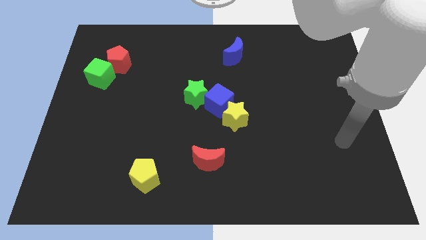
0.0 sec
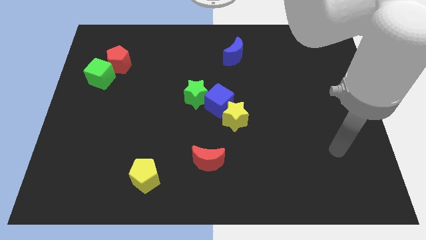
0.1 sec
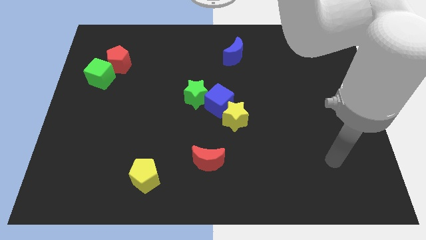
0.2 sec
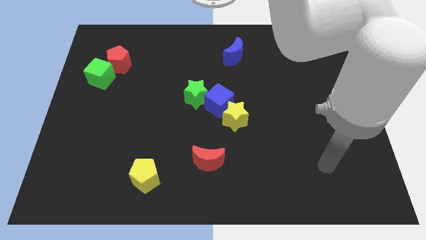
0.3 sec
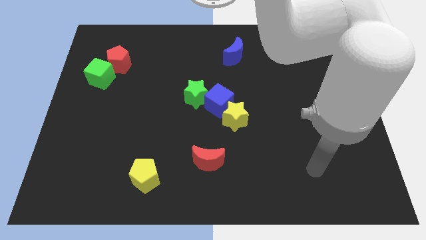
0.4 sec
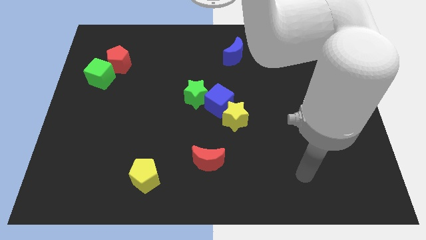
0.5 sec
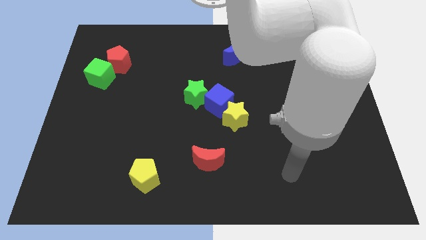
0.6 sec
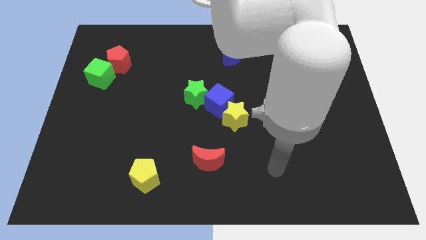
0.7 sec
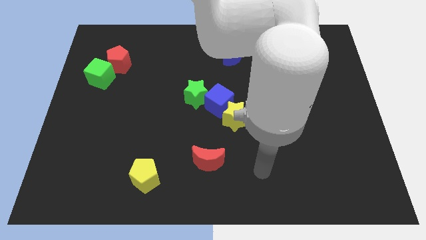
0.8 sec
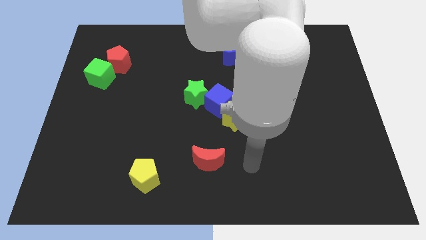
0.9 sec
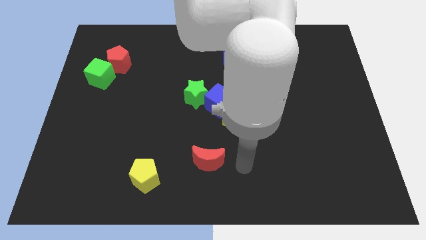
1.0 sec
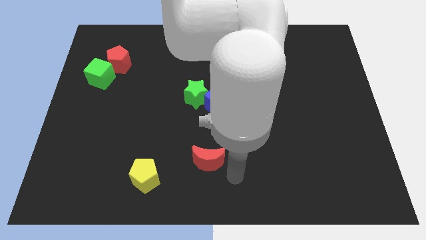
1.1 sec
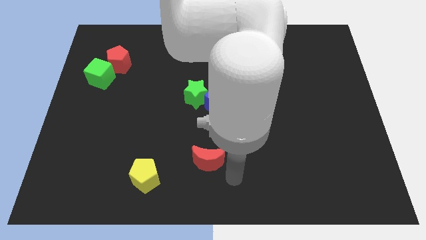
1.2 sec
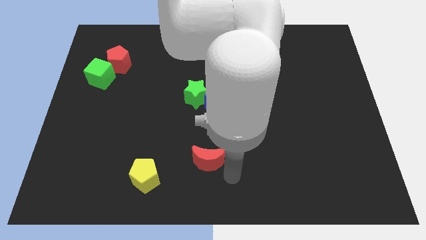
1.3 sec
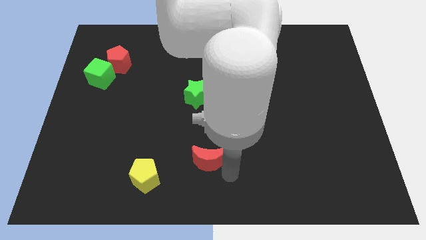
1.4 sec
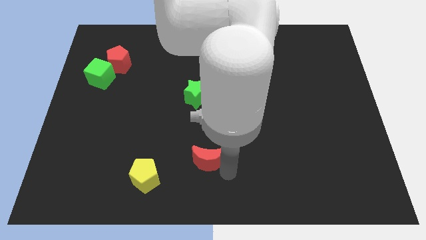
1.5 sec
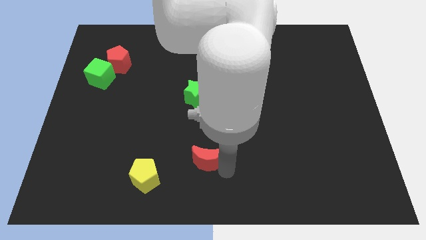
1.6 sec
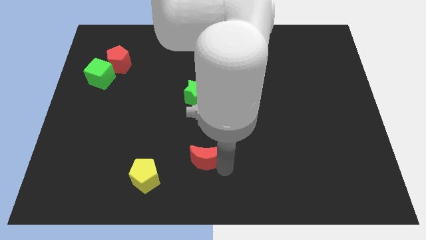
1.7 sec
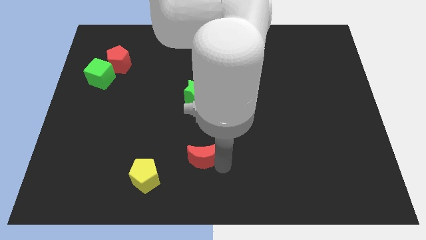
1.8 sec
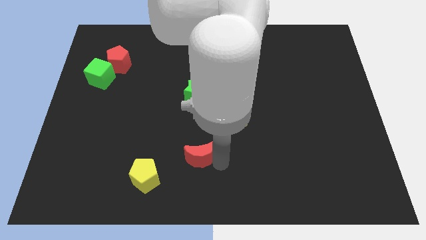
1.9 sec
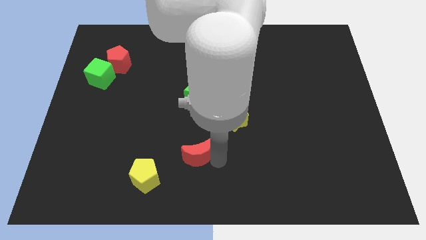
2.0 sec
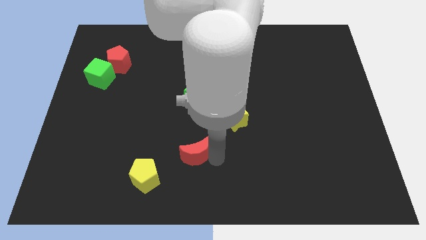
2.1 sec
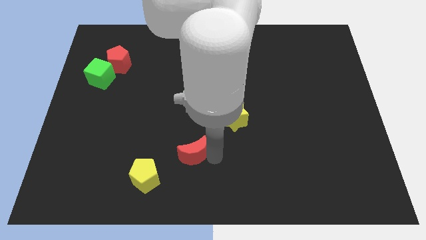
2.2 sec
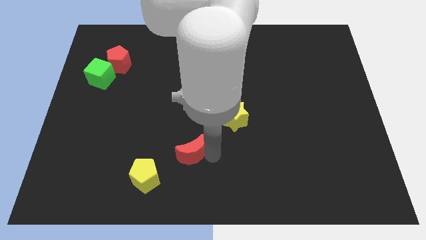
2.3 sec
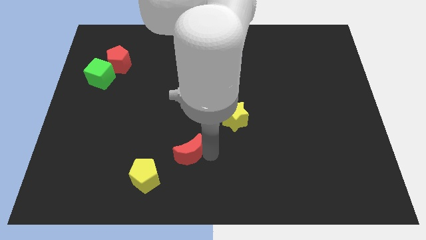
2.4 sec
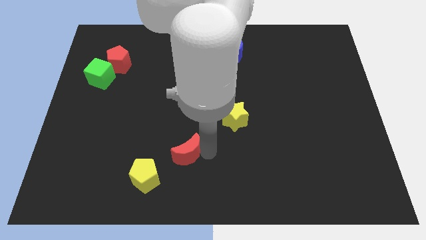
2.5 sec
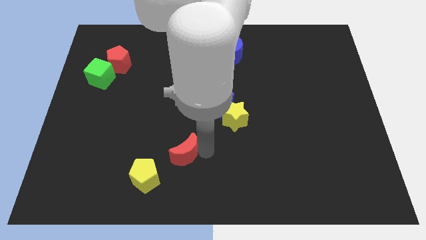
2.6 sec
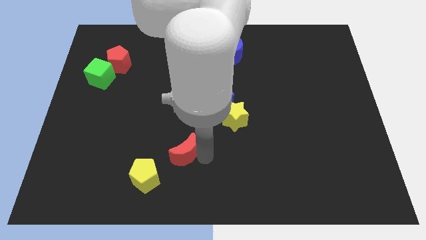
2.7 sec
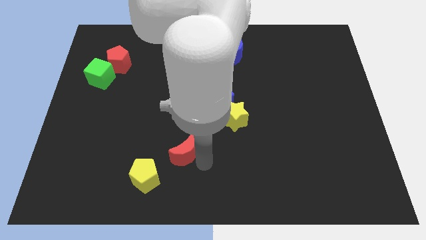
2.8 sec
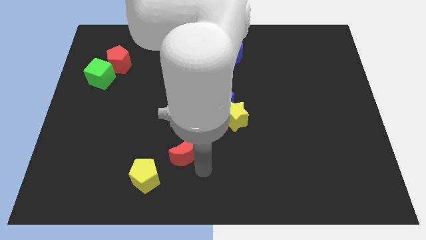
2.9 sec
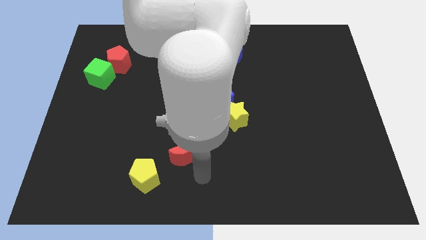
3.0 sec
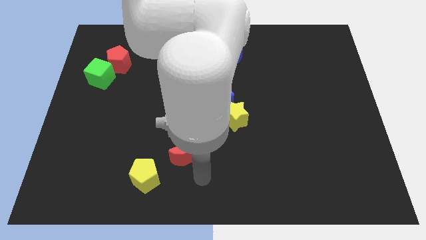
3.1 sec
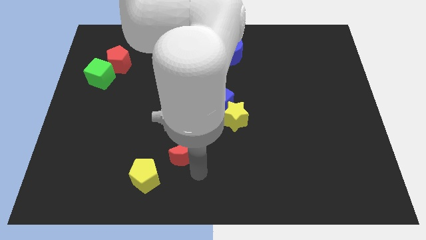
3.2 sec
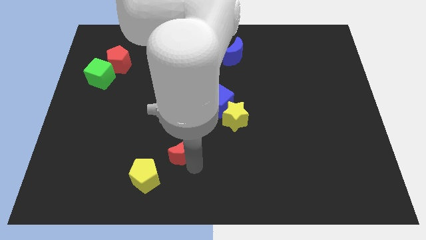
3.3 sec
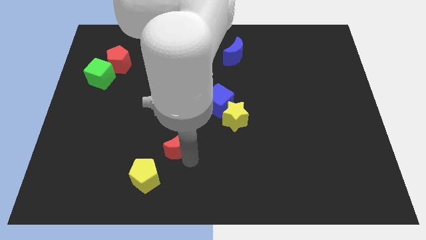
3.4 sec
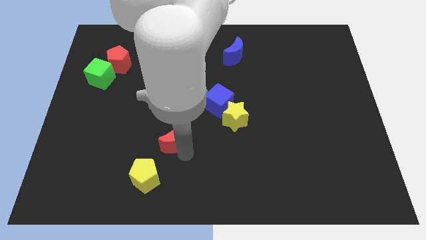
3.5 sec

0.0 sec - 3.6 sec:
move the red moon upwards and to the left a bit

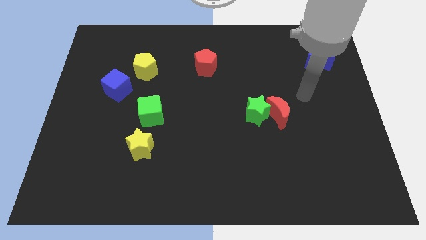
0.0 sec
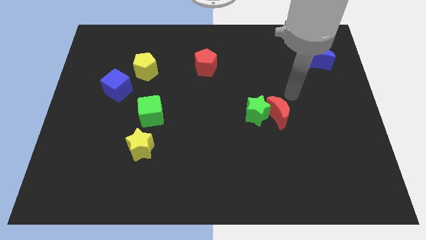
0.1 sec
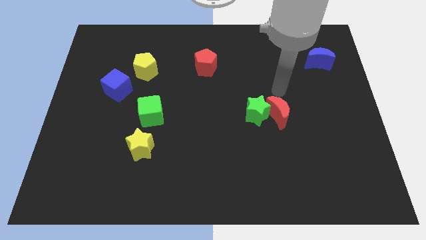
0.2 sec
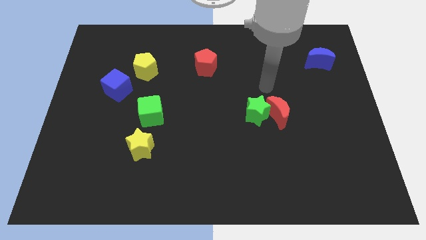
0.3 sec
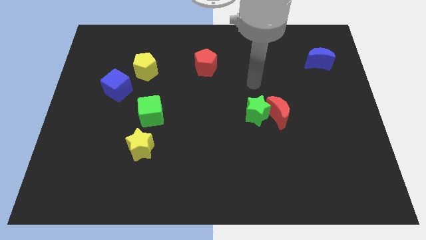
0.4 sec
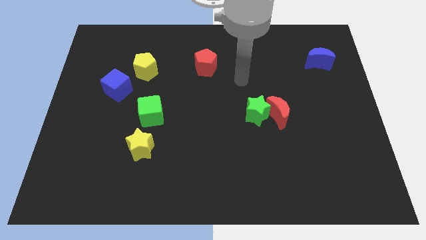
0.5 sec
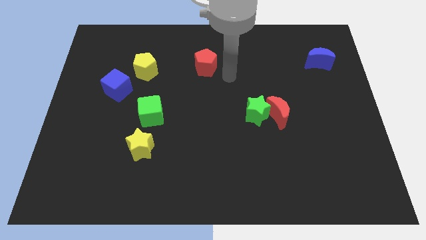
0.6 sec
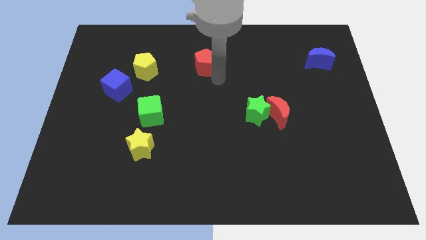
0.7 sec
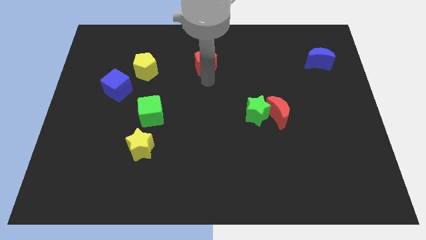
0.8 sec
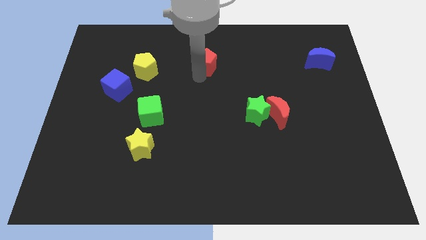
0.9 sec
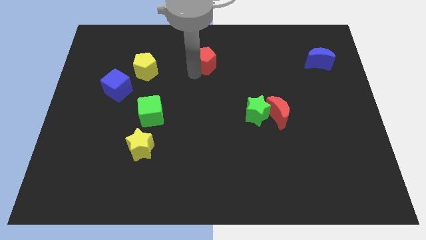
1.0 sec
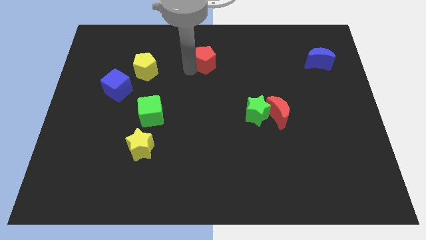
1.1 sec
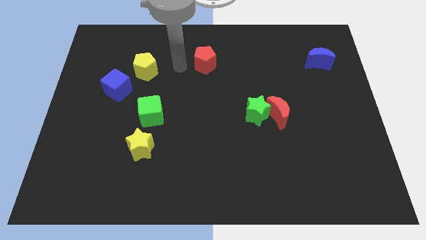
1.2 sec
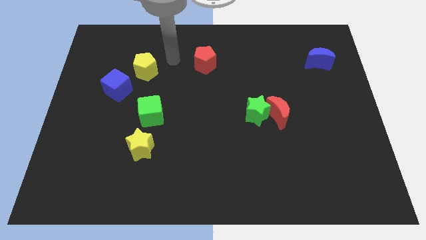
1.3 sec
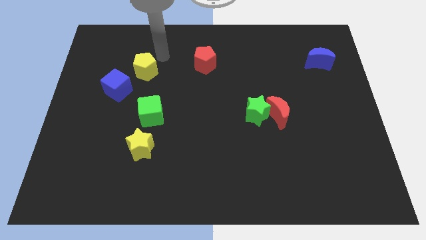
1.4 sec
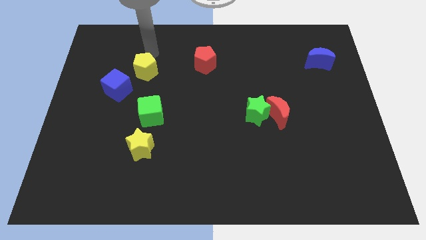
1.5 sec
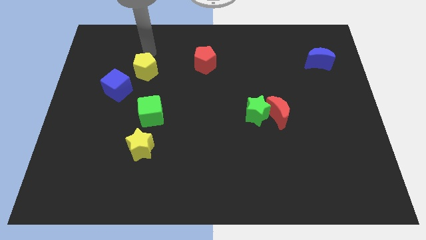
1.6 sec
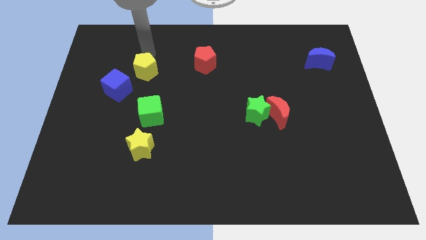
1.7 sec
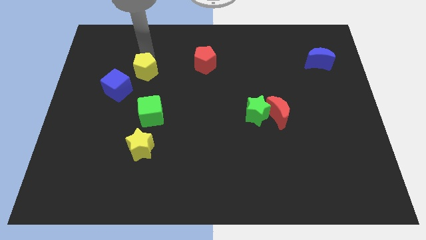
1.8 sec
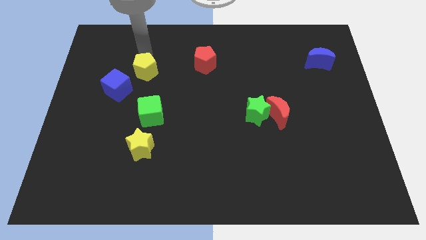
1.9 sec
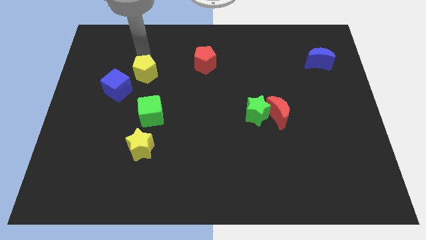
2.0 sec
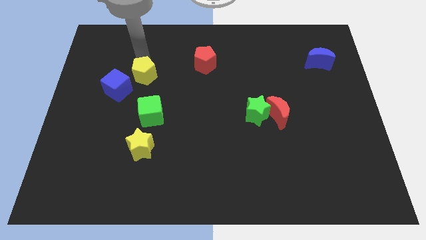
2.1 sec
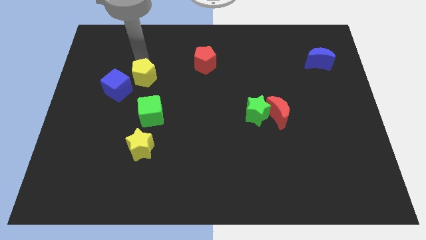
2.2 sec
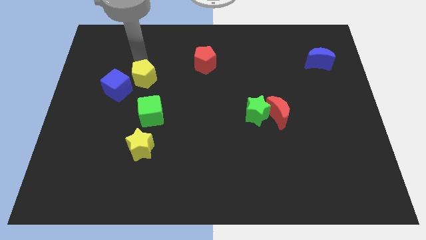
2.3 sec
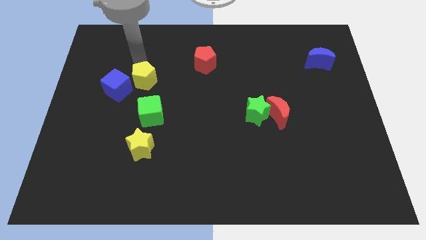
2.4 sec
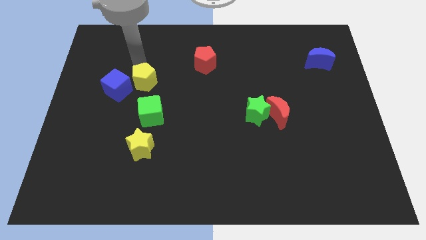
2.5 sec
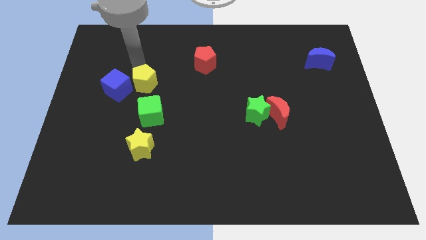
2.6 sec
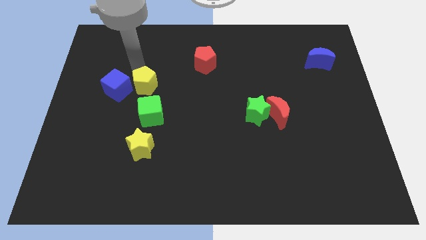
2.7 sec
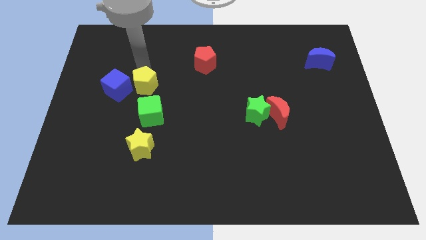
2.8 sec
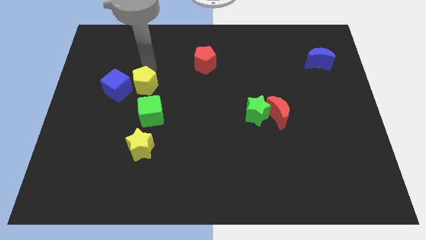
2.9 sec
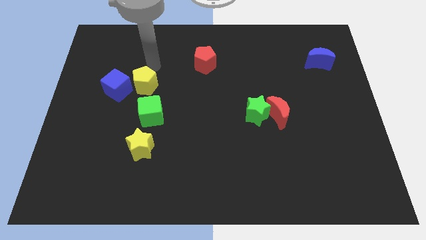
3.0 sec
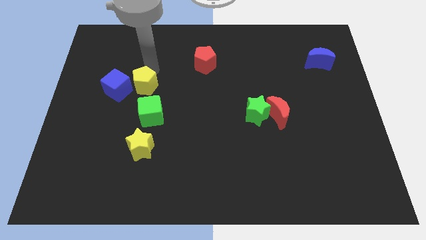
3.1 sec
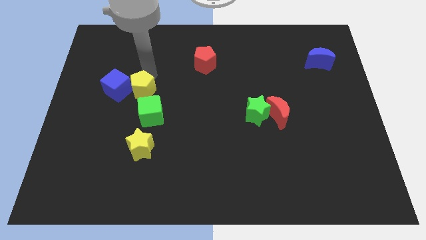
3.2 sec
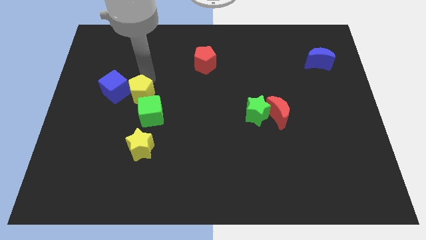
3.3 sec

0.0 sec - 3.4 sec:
move the yellow pentagon down a little

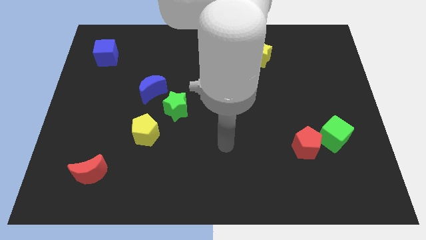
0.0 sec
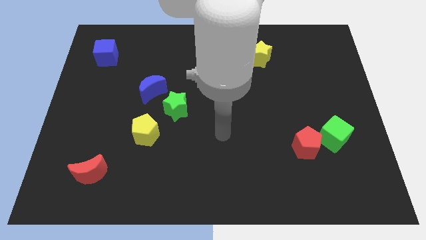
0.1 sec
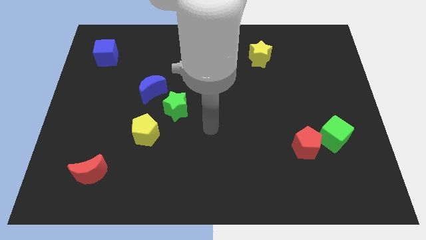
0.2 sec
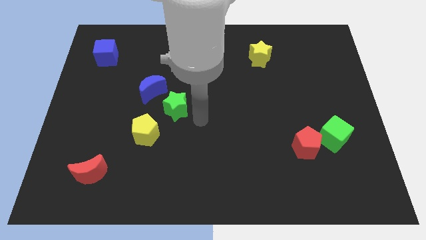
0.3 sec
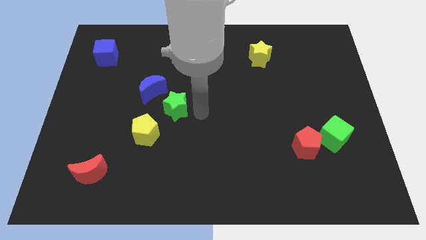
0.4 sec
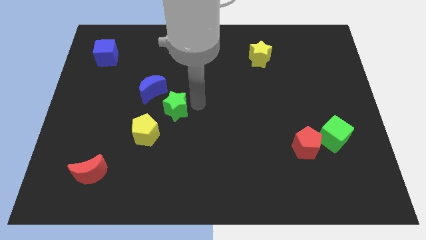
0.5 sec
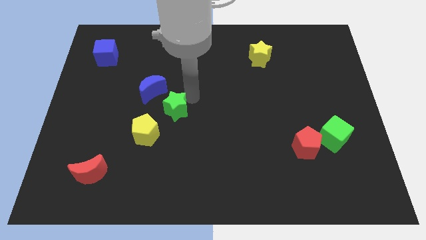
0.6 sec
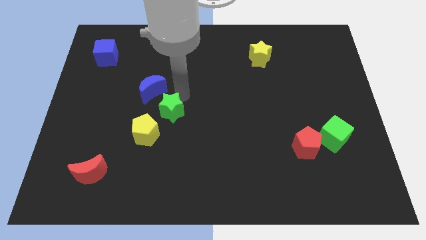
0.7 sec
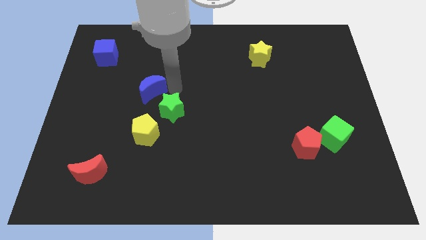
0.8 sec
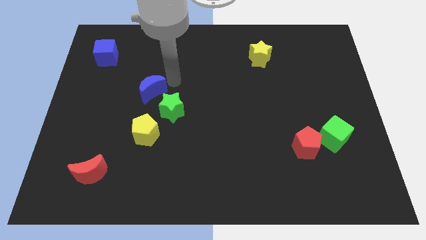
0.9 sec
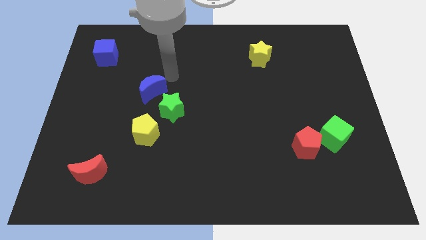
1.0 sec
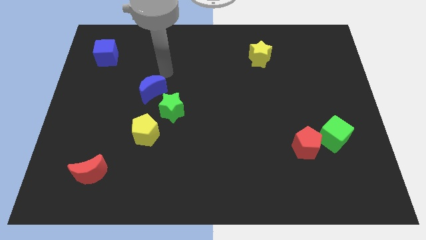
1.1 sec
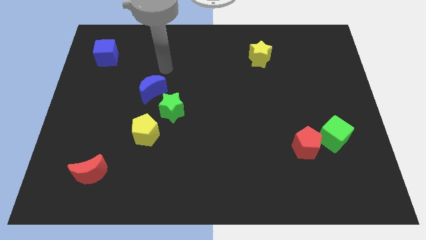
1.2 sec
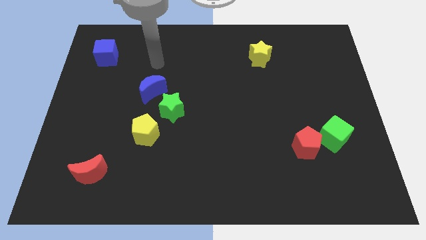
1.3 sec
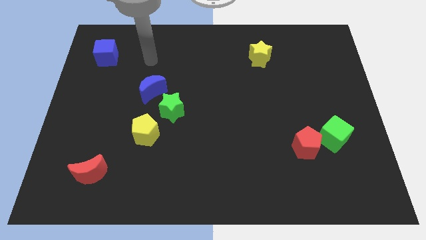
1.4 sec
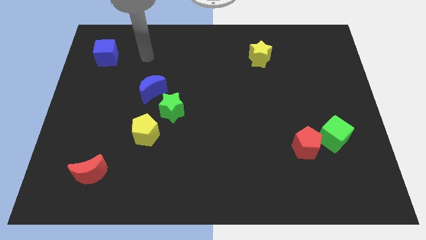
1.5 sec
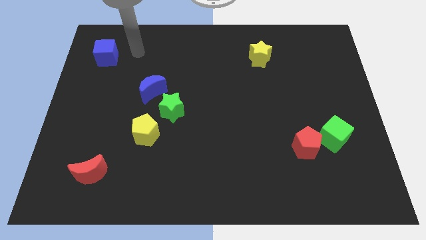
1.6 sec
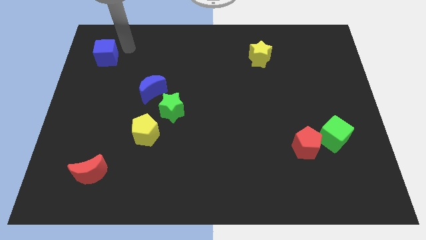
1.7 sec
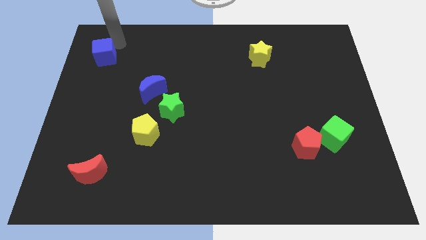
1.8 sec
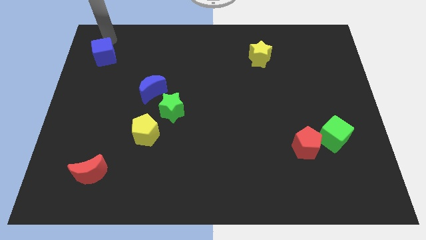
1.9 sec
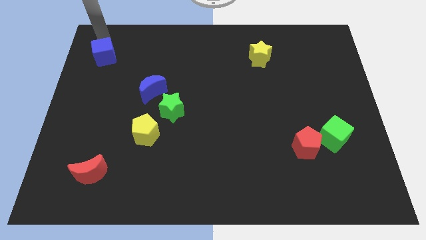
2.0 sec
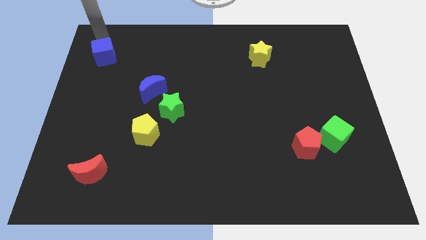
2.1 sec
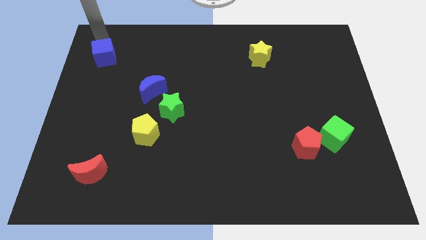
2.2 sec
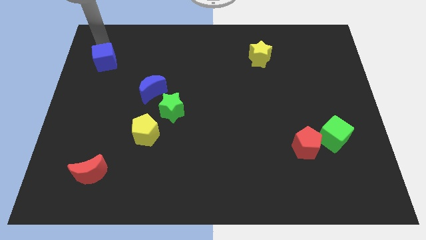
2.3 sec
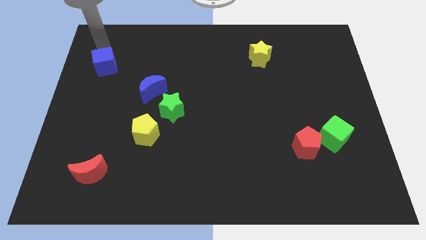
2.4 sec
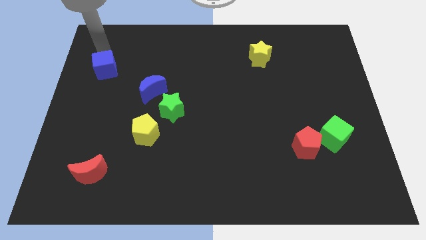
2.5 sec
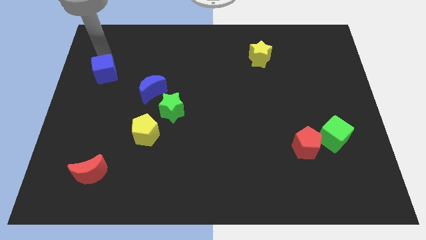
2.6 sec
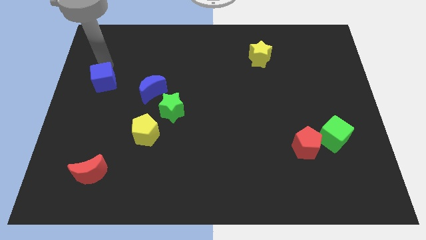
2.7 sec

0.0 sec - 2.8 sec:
slightly slide the blue cube down
